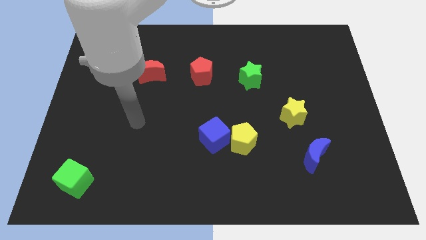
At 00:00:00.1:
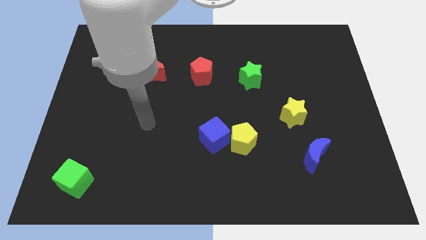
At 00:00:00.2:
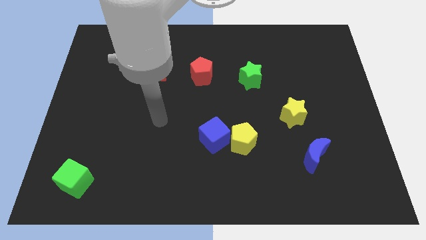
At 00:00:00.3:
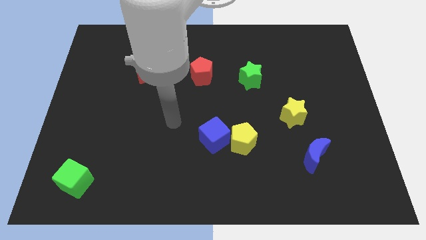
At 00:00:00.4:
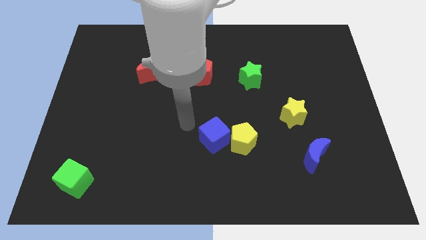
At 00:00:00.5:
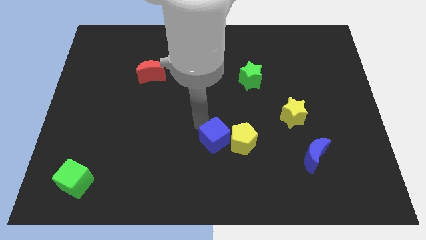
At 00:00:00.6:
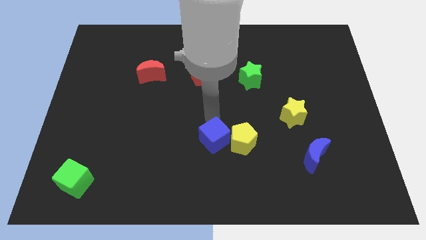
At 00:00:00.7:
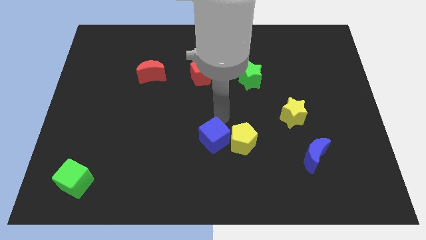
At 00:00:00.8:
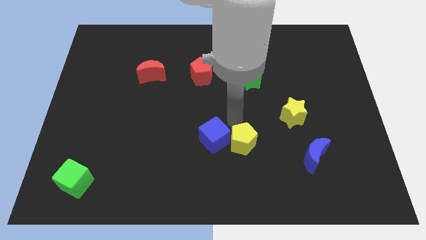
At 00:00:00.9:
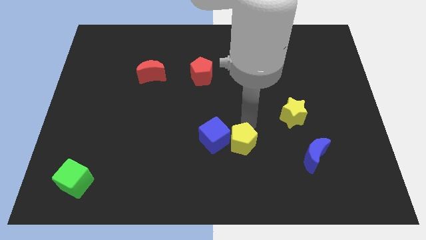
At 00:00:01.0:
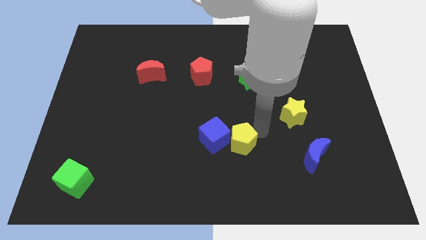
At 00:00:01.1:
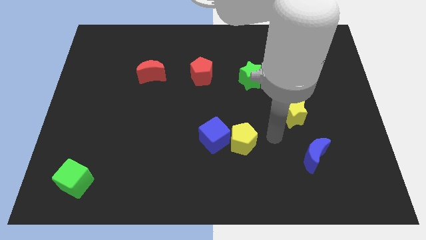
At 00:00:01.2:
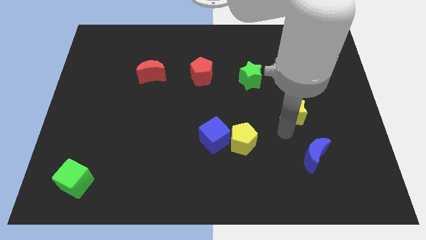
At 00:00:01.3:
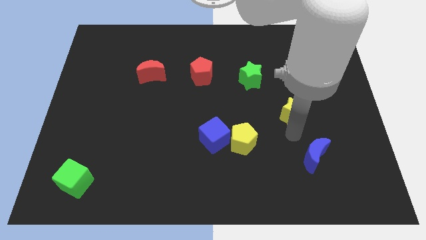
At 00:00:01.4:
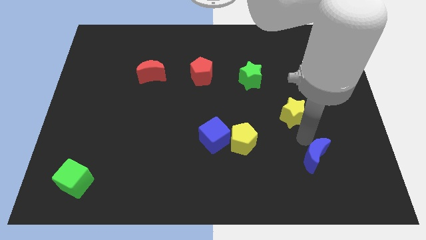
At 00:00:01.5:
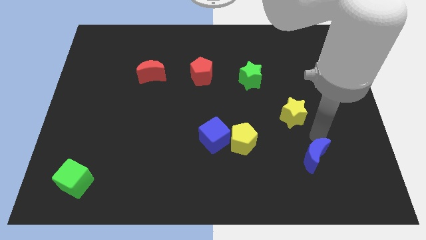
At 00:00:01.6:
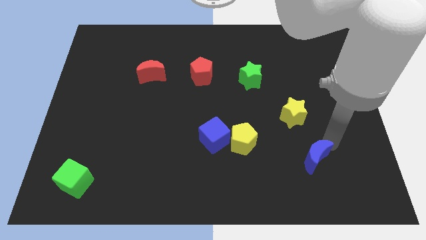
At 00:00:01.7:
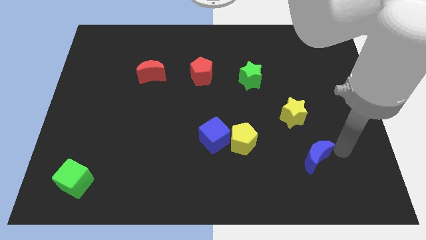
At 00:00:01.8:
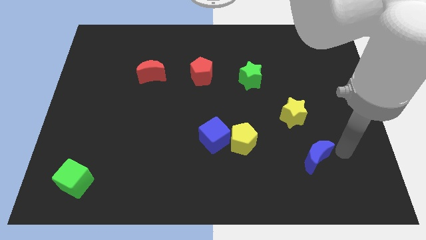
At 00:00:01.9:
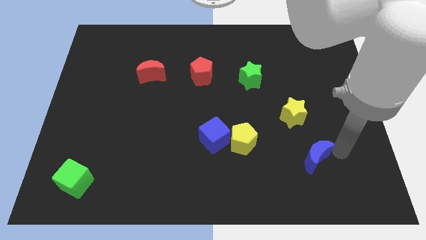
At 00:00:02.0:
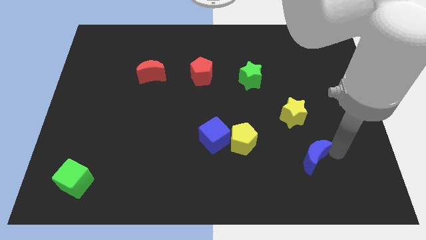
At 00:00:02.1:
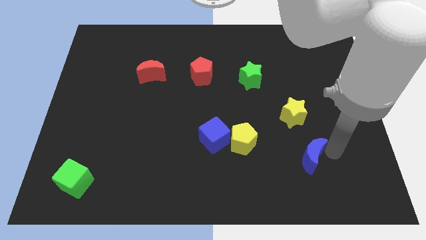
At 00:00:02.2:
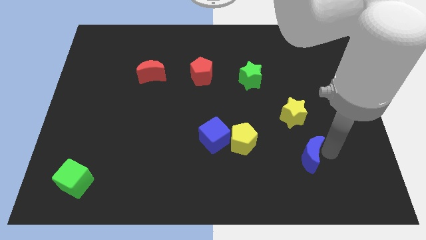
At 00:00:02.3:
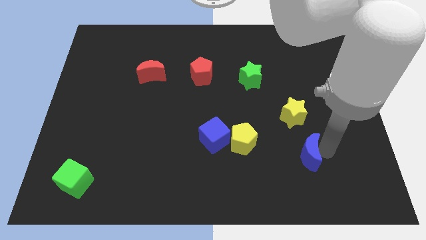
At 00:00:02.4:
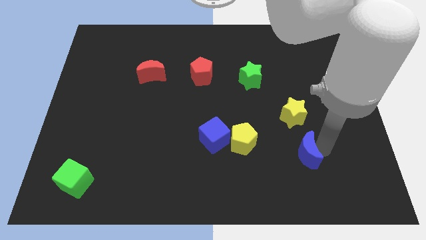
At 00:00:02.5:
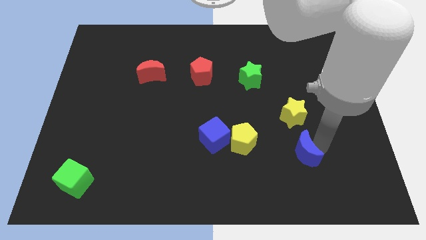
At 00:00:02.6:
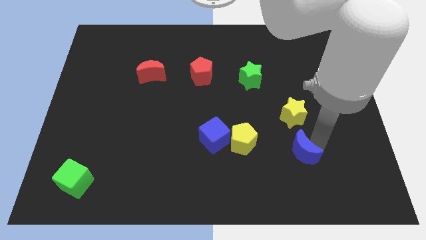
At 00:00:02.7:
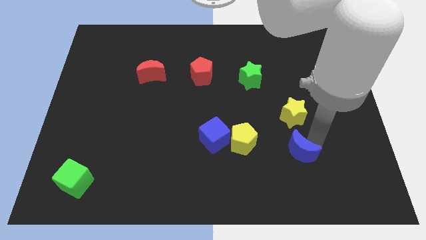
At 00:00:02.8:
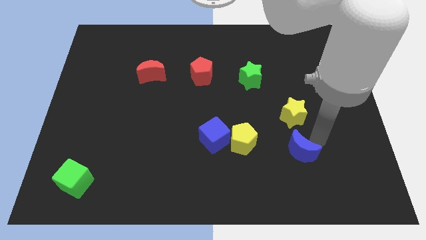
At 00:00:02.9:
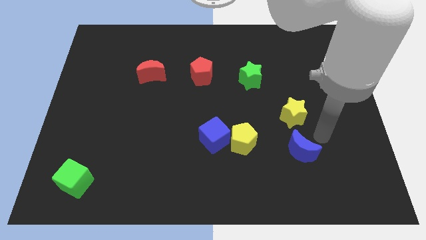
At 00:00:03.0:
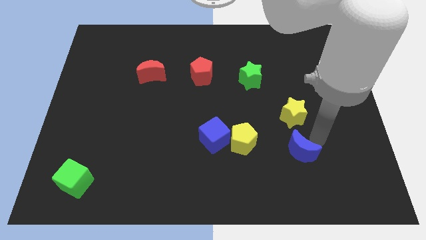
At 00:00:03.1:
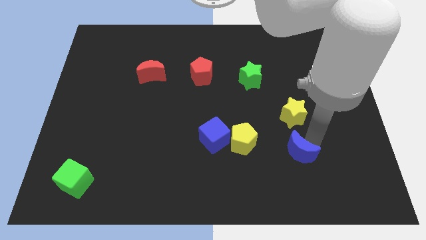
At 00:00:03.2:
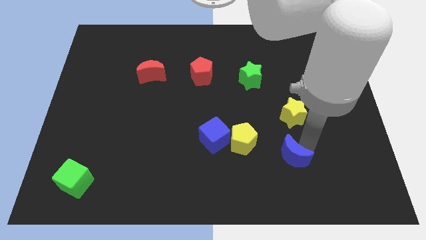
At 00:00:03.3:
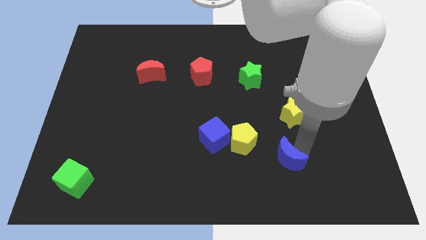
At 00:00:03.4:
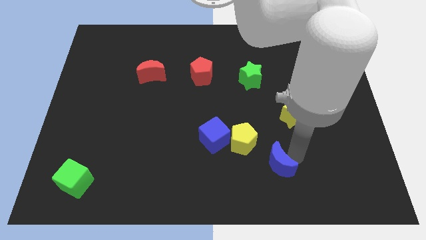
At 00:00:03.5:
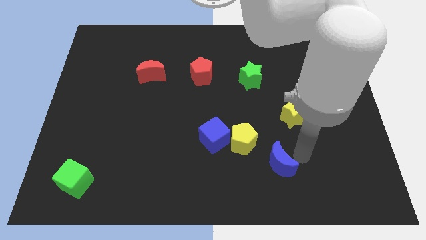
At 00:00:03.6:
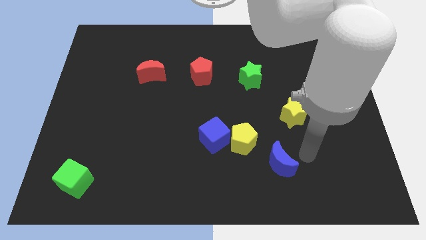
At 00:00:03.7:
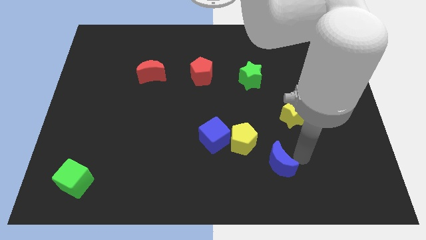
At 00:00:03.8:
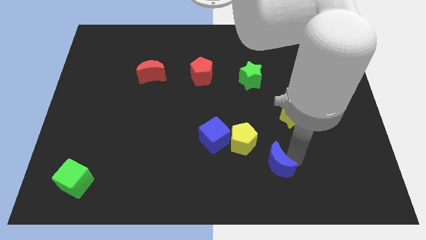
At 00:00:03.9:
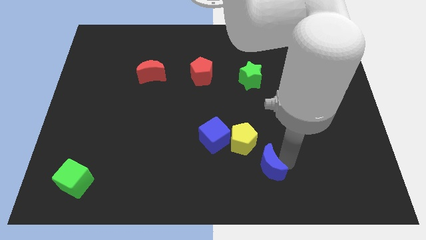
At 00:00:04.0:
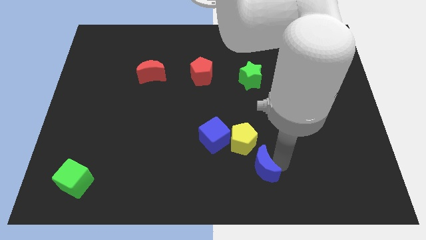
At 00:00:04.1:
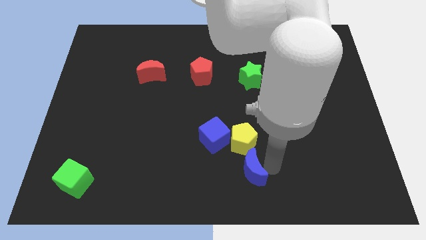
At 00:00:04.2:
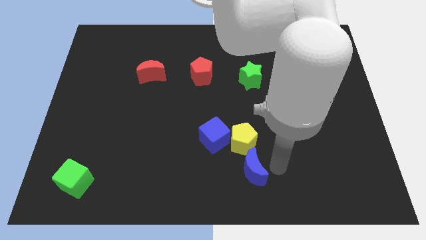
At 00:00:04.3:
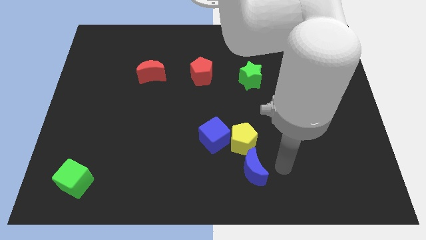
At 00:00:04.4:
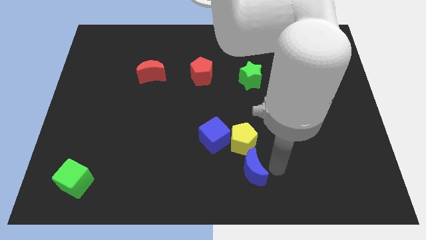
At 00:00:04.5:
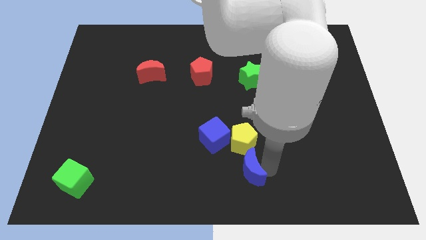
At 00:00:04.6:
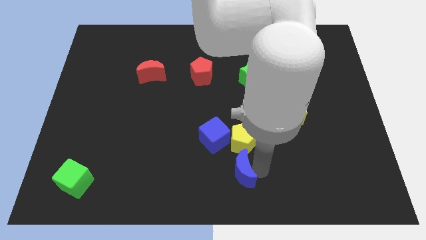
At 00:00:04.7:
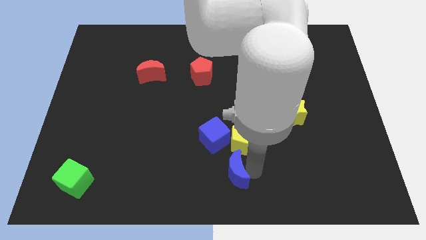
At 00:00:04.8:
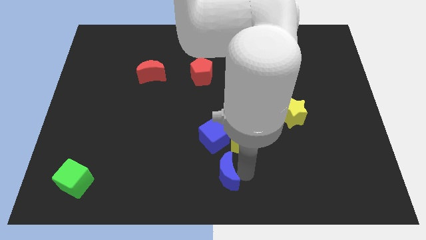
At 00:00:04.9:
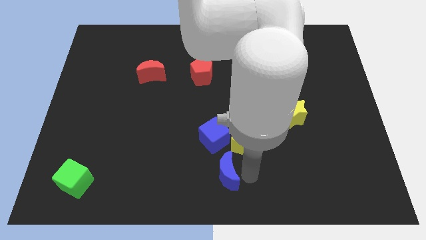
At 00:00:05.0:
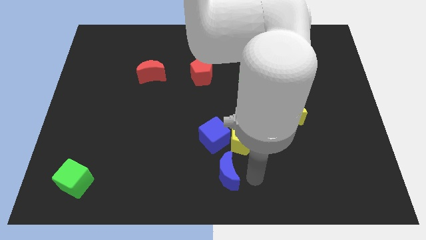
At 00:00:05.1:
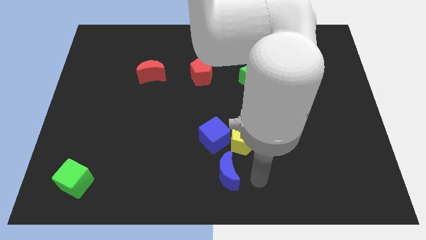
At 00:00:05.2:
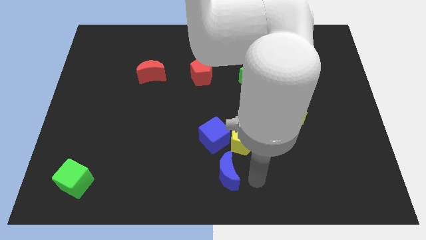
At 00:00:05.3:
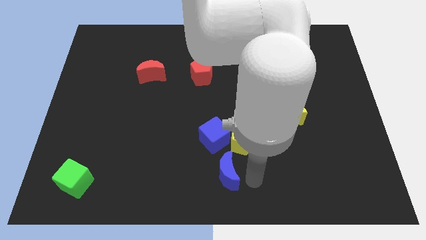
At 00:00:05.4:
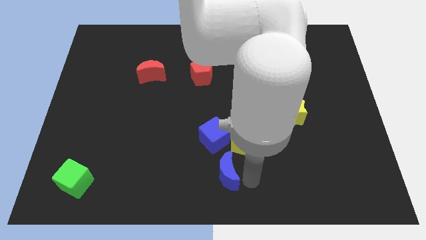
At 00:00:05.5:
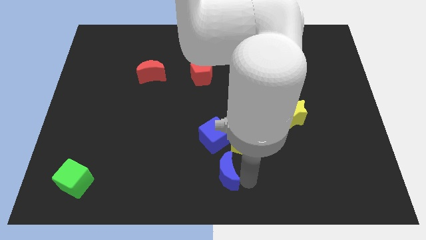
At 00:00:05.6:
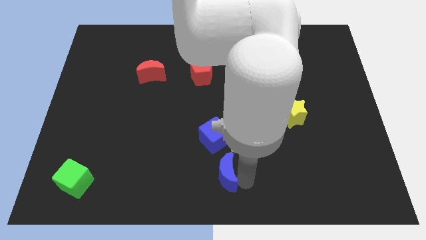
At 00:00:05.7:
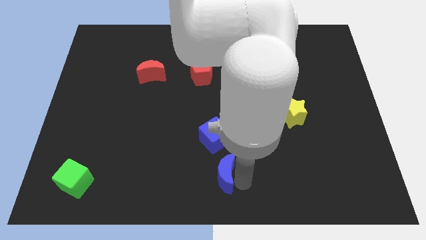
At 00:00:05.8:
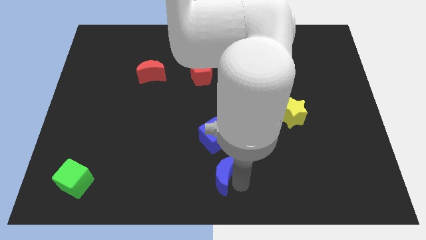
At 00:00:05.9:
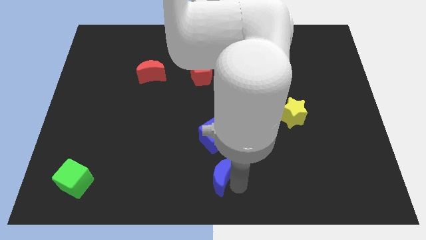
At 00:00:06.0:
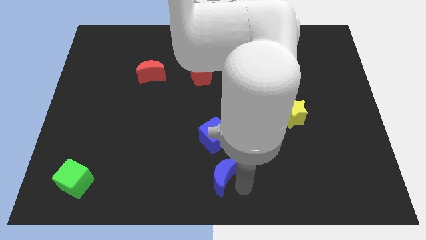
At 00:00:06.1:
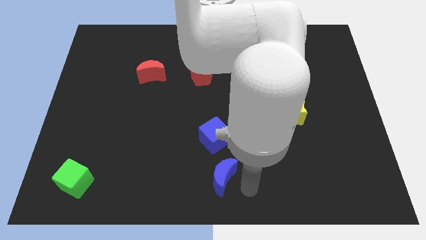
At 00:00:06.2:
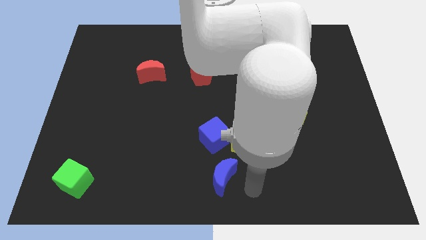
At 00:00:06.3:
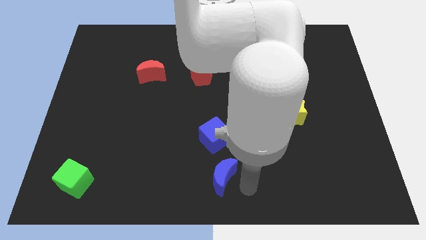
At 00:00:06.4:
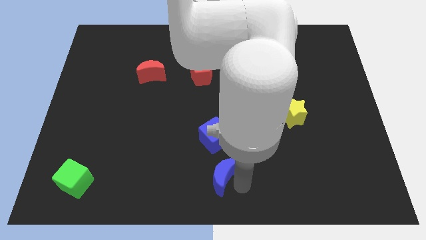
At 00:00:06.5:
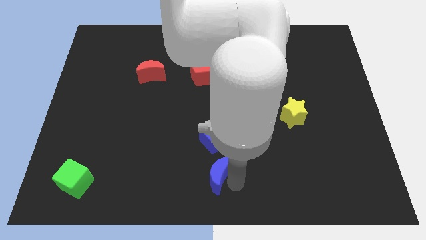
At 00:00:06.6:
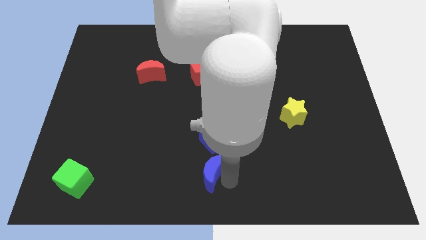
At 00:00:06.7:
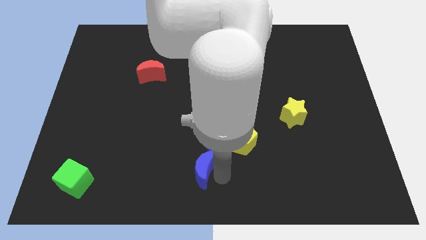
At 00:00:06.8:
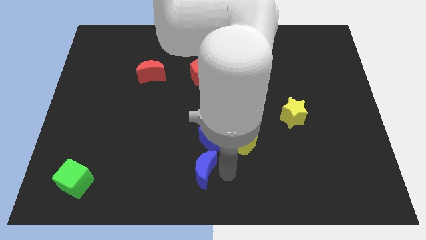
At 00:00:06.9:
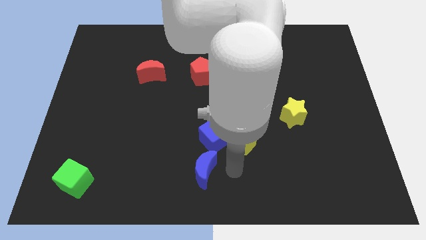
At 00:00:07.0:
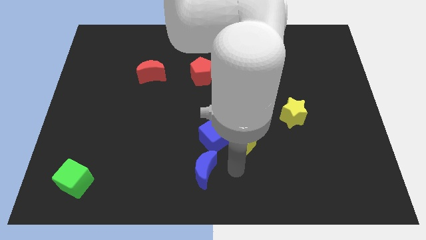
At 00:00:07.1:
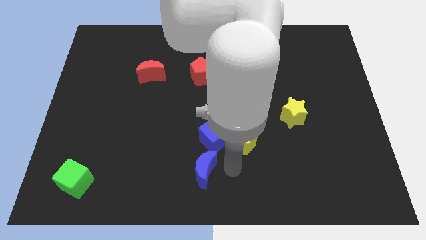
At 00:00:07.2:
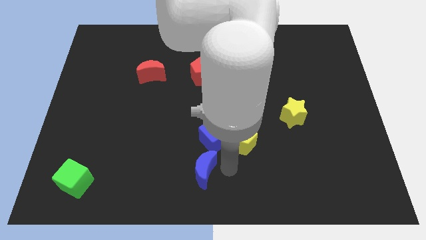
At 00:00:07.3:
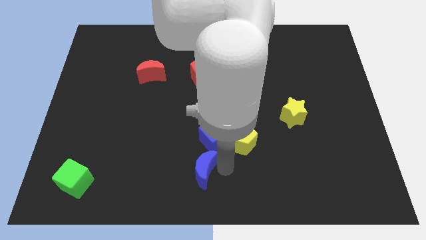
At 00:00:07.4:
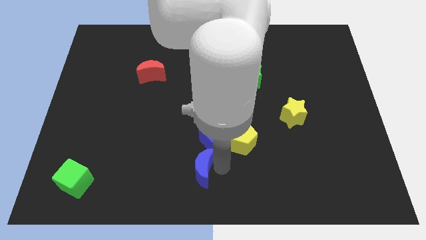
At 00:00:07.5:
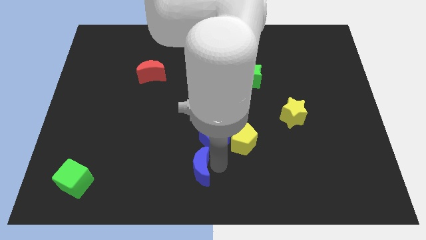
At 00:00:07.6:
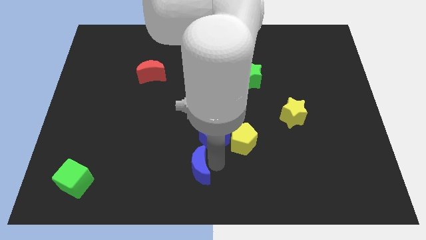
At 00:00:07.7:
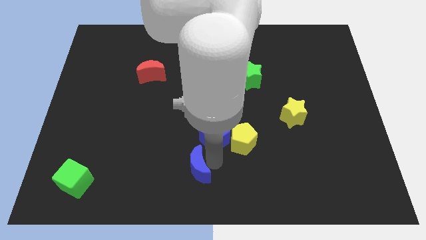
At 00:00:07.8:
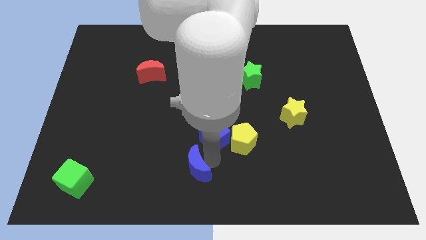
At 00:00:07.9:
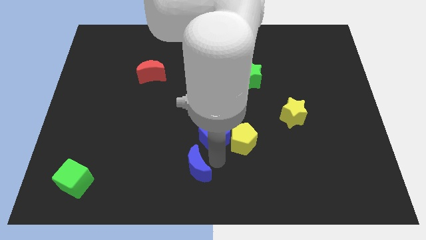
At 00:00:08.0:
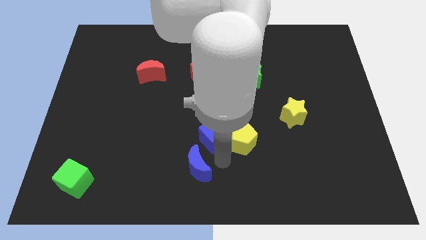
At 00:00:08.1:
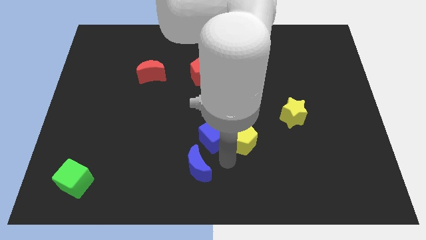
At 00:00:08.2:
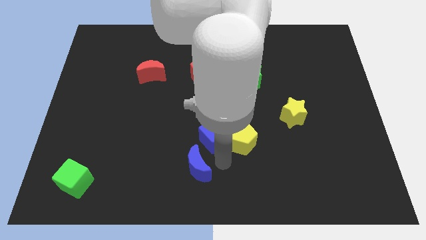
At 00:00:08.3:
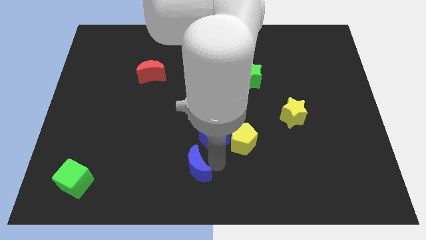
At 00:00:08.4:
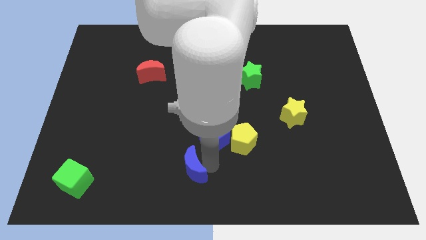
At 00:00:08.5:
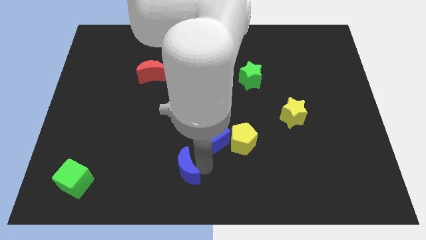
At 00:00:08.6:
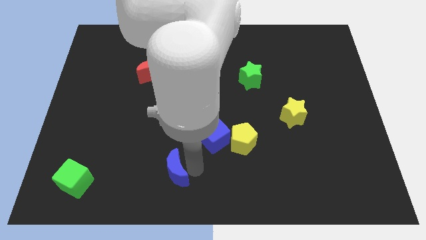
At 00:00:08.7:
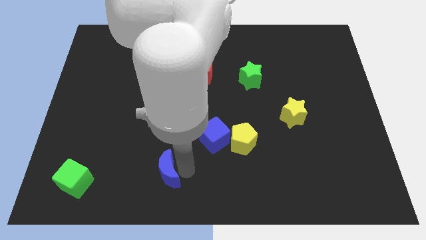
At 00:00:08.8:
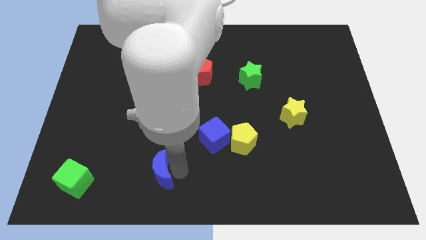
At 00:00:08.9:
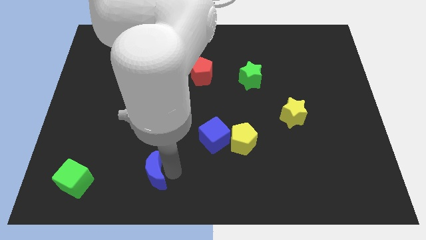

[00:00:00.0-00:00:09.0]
put the blue moon to the right of the green cube
